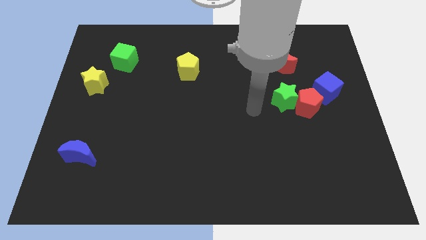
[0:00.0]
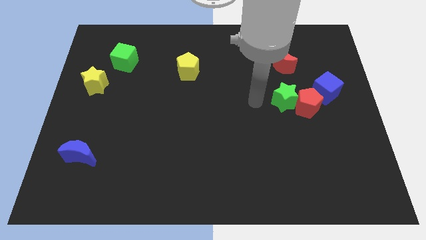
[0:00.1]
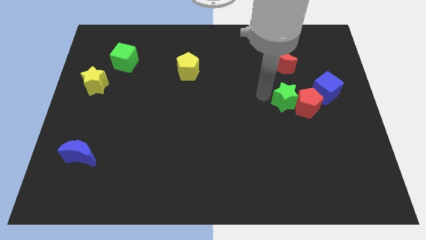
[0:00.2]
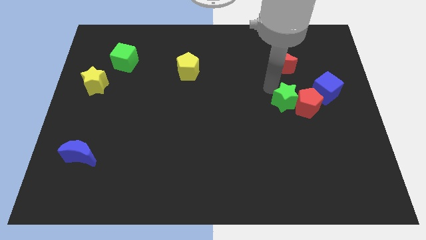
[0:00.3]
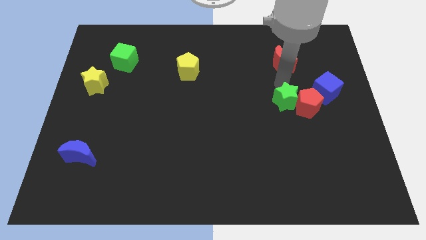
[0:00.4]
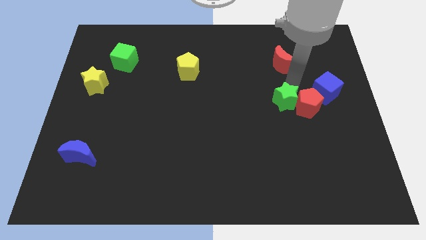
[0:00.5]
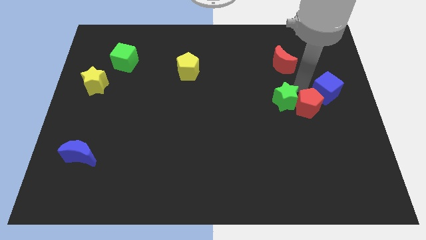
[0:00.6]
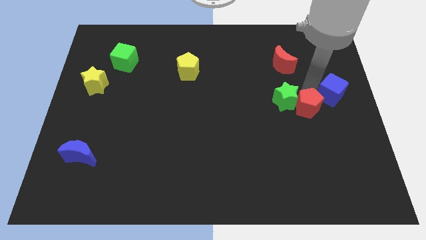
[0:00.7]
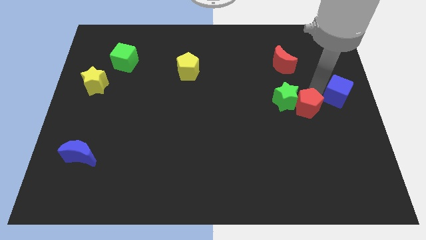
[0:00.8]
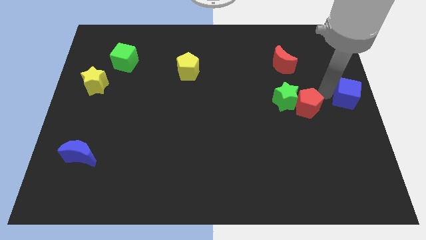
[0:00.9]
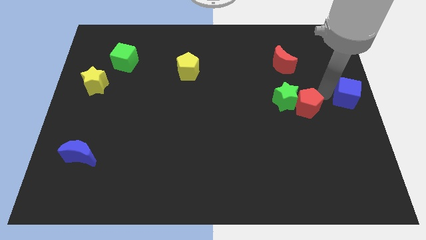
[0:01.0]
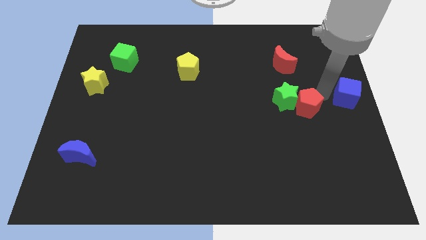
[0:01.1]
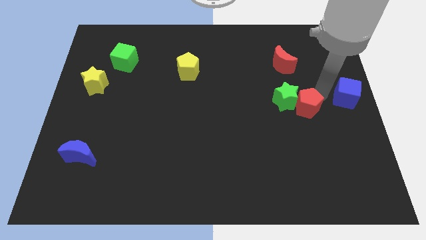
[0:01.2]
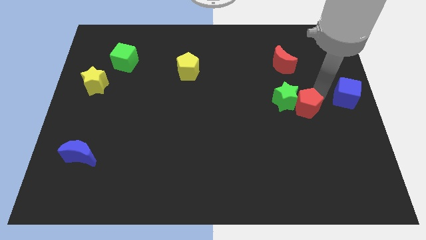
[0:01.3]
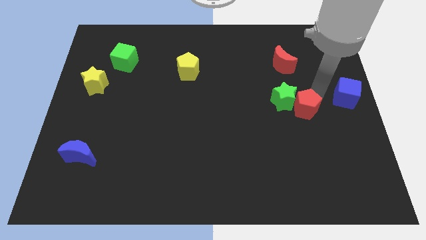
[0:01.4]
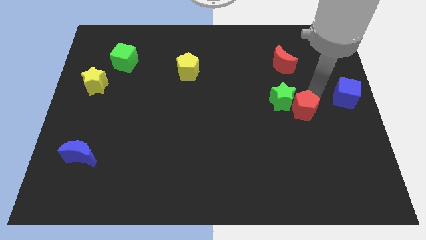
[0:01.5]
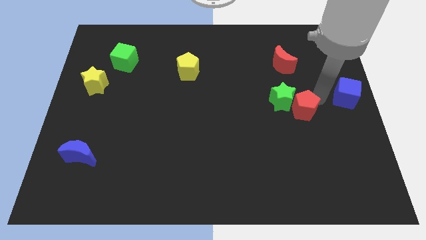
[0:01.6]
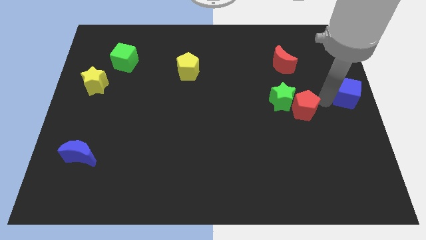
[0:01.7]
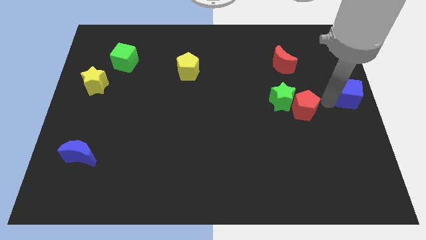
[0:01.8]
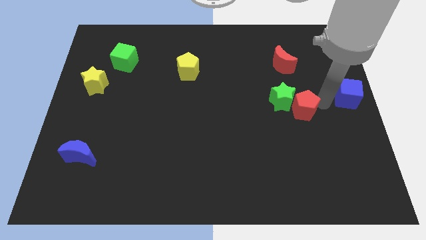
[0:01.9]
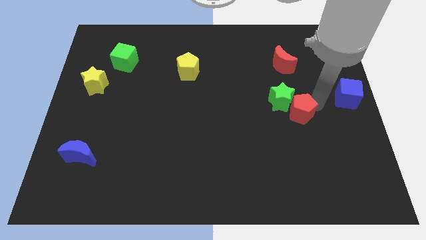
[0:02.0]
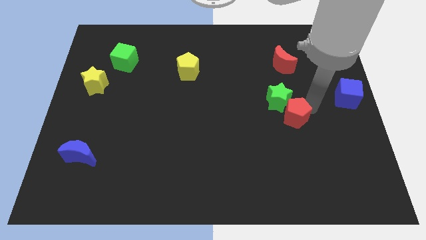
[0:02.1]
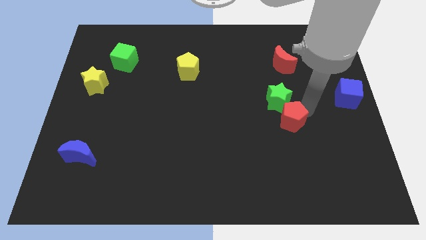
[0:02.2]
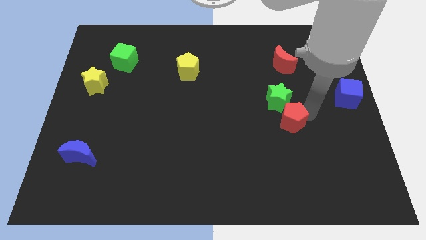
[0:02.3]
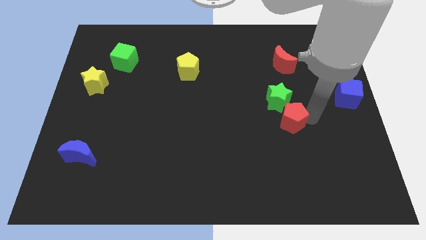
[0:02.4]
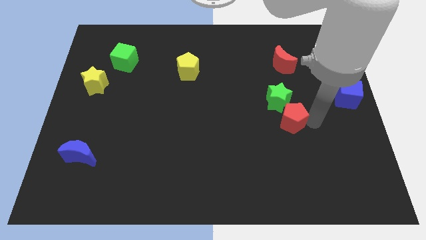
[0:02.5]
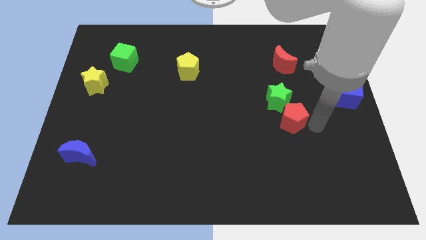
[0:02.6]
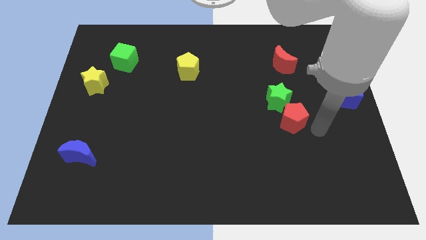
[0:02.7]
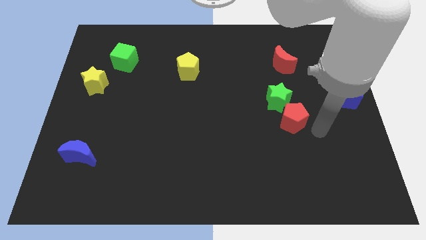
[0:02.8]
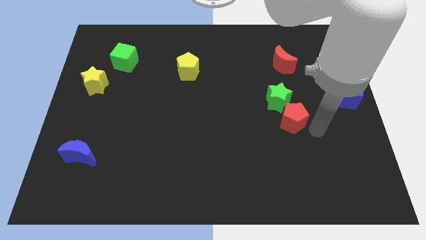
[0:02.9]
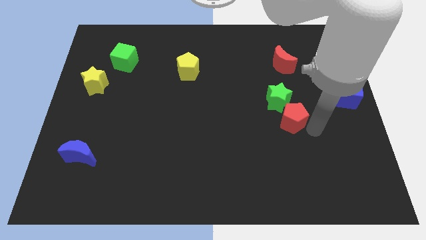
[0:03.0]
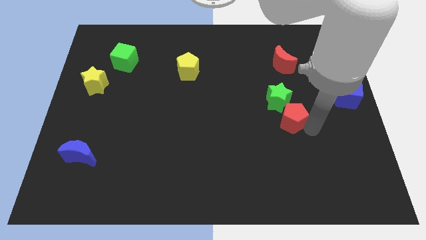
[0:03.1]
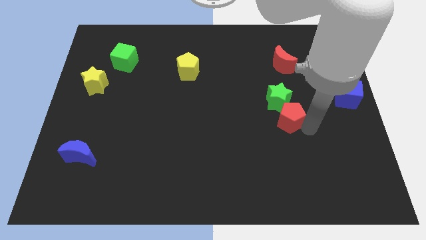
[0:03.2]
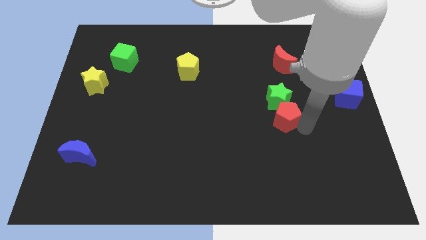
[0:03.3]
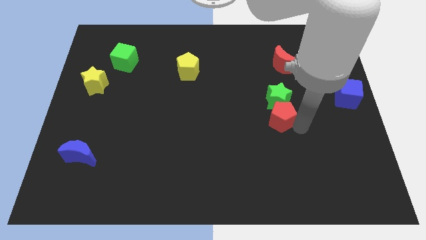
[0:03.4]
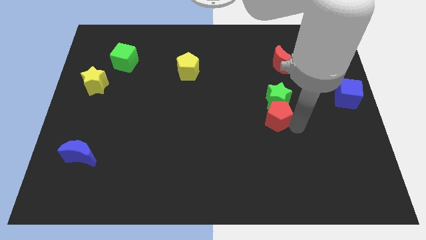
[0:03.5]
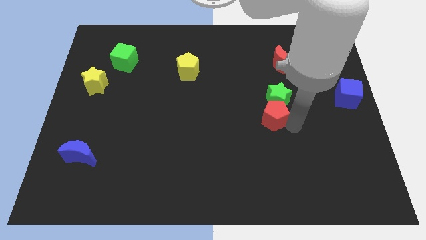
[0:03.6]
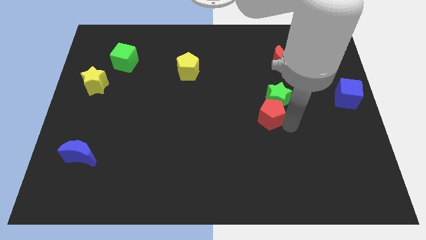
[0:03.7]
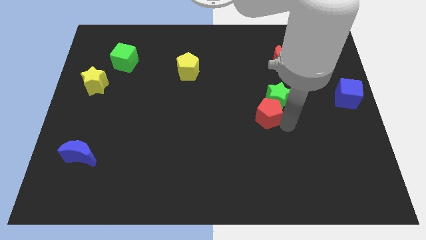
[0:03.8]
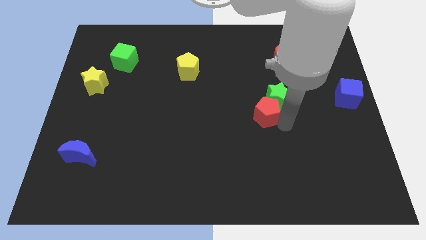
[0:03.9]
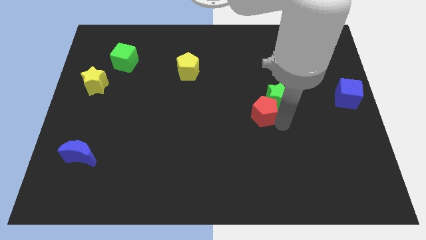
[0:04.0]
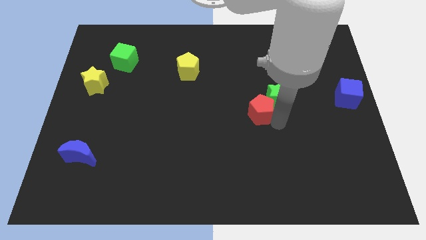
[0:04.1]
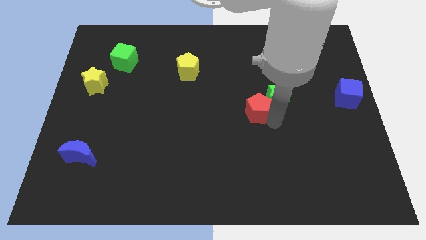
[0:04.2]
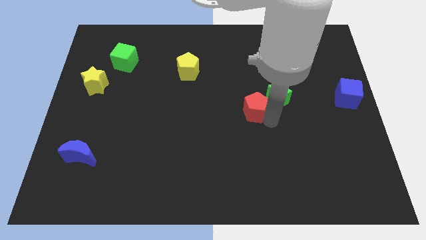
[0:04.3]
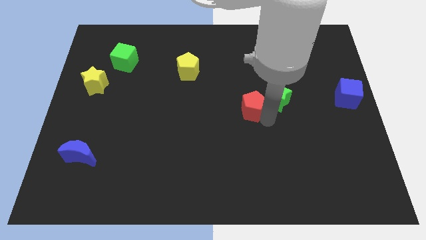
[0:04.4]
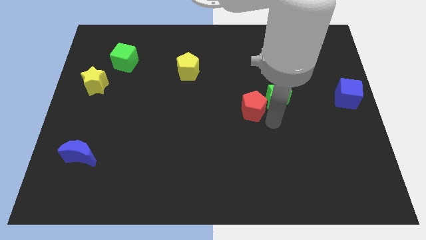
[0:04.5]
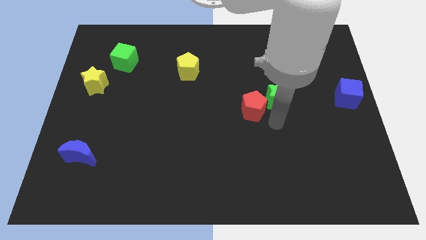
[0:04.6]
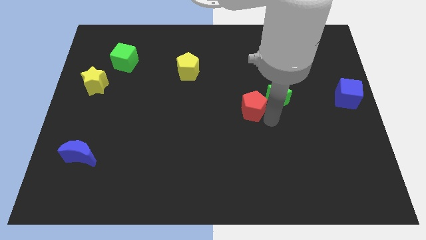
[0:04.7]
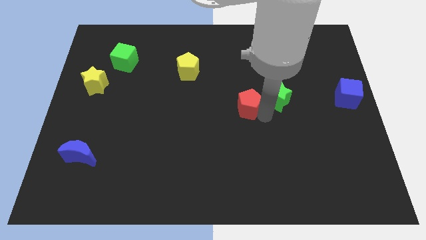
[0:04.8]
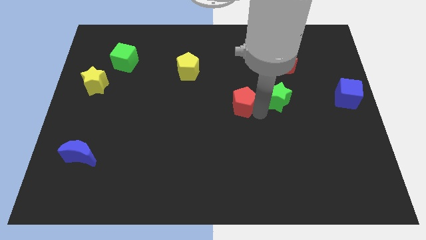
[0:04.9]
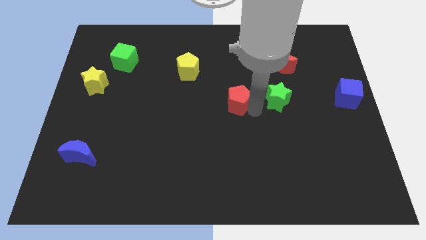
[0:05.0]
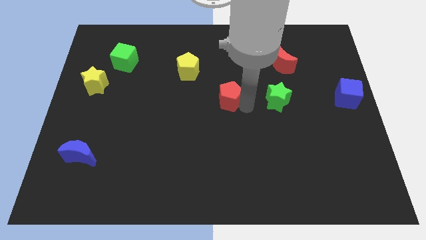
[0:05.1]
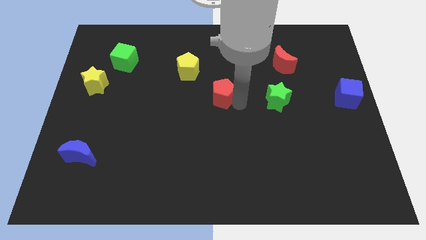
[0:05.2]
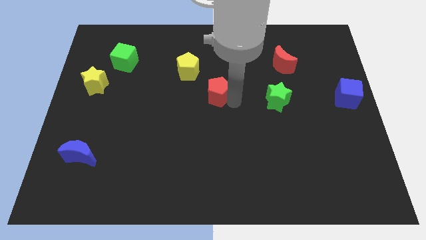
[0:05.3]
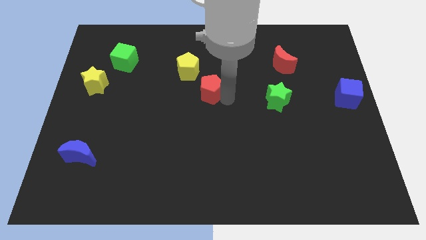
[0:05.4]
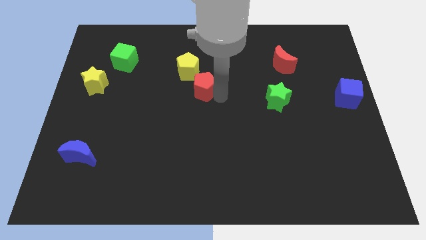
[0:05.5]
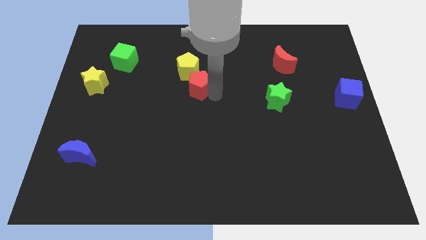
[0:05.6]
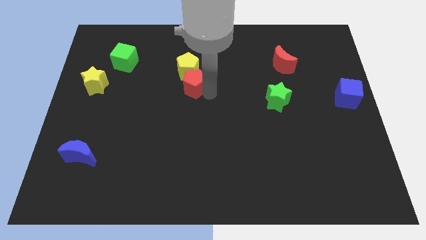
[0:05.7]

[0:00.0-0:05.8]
move the red pentagon next to the yellow pentagon

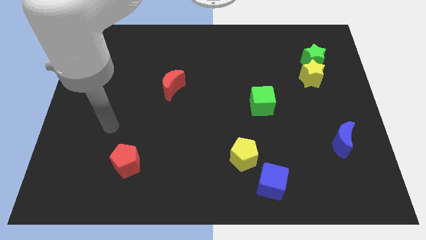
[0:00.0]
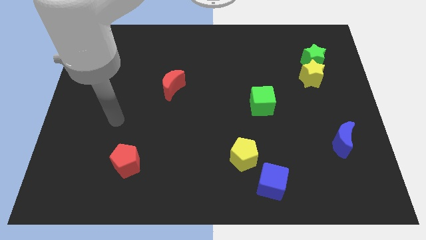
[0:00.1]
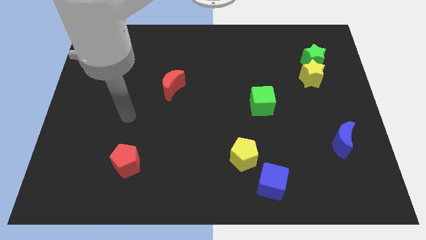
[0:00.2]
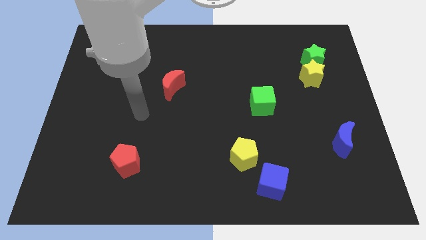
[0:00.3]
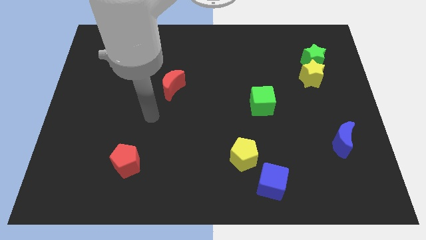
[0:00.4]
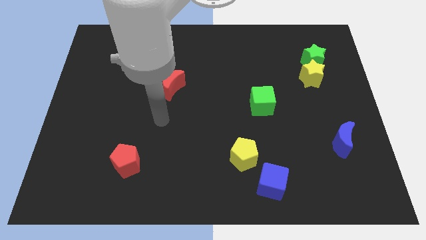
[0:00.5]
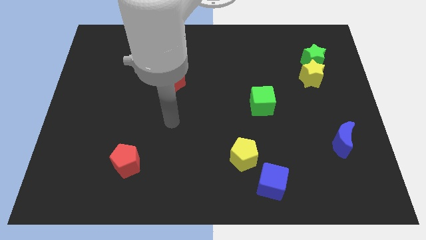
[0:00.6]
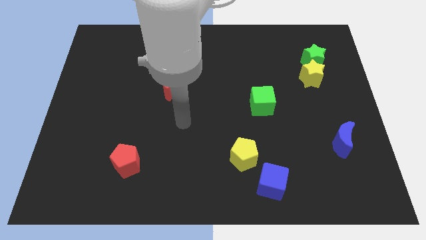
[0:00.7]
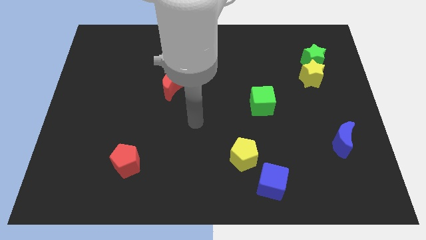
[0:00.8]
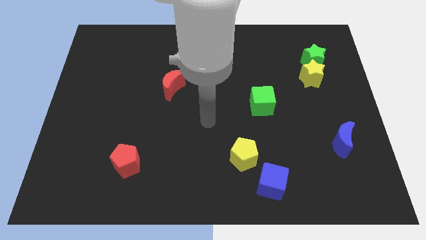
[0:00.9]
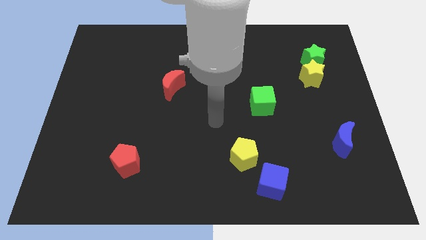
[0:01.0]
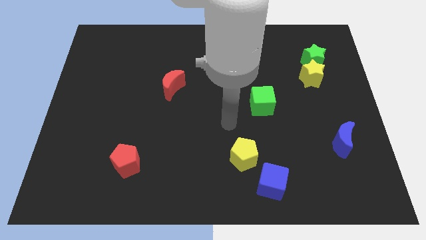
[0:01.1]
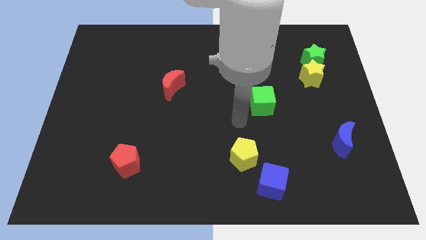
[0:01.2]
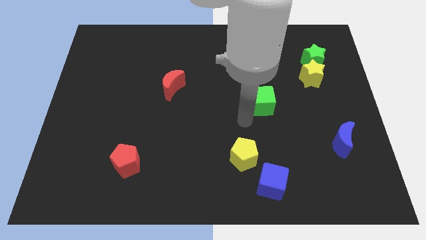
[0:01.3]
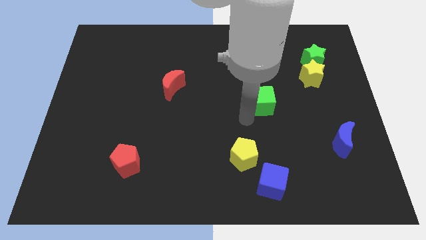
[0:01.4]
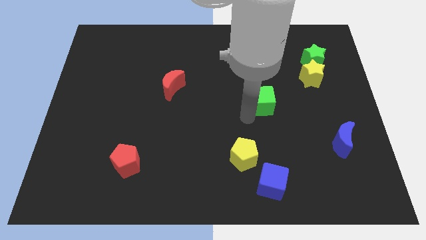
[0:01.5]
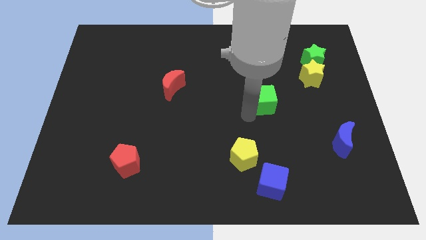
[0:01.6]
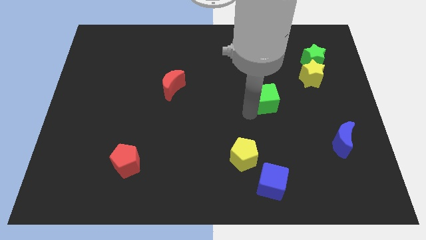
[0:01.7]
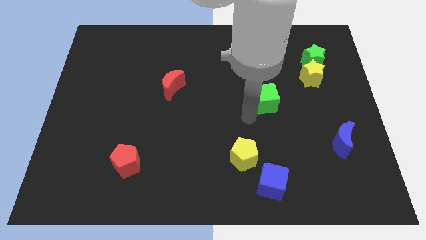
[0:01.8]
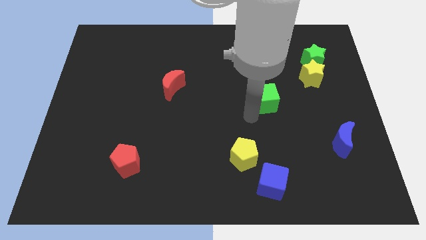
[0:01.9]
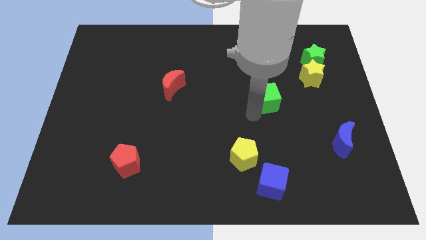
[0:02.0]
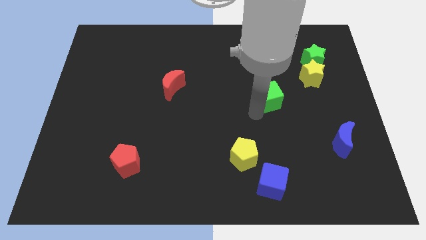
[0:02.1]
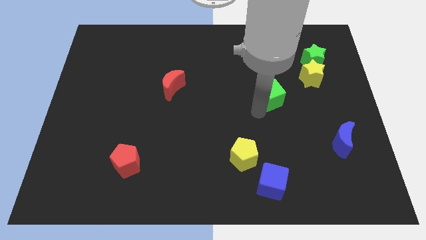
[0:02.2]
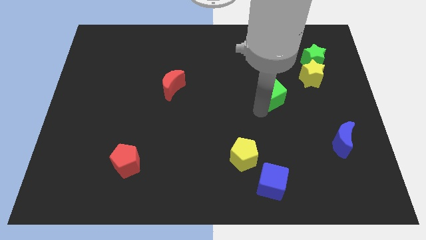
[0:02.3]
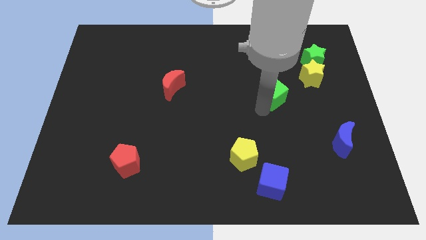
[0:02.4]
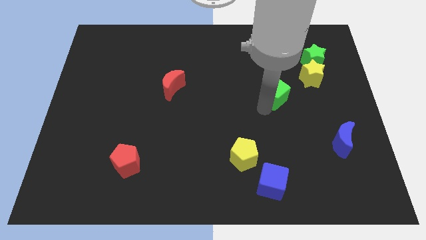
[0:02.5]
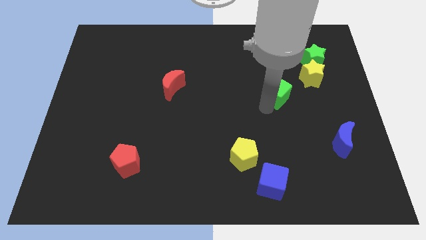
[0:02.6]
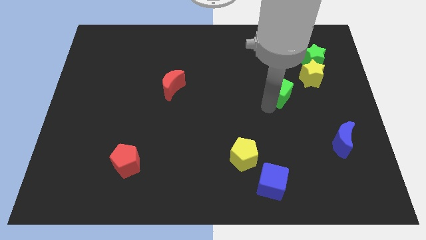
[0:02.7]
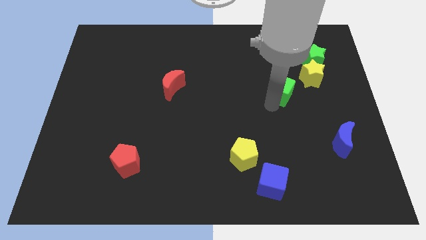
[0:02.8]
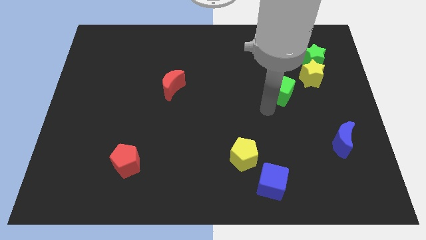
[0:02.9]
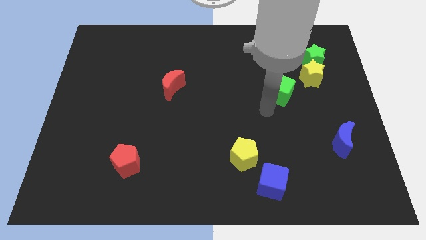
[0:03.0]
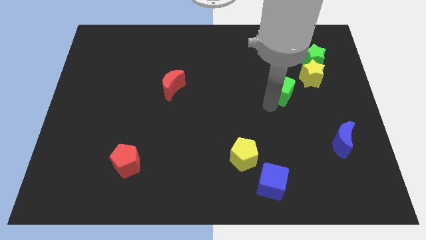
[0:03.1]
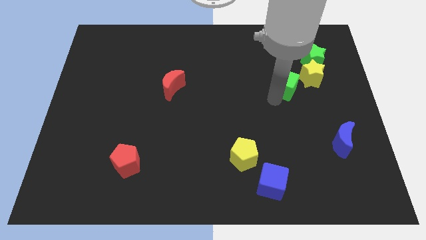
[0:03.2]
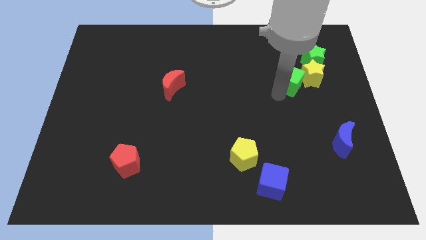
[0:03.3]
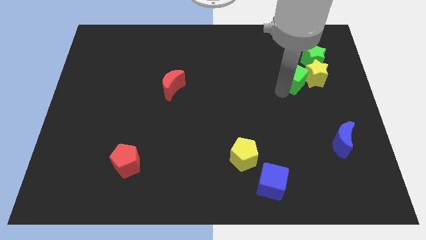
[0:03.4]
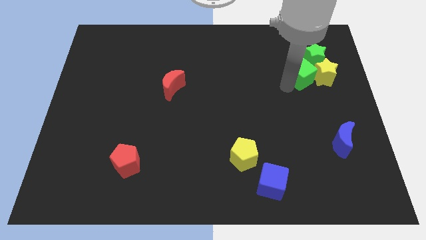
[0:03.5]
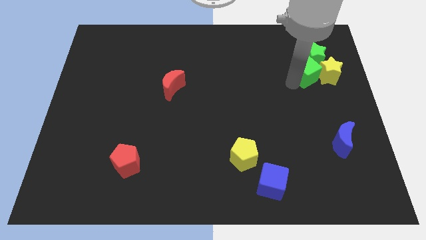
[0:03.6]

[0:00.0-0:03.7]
slide the green cube towards the green star
